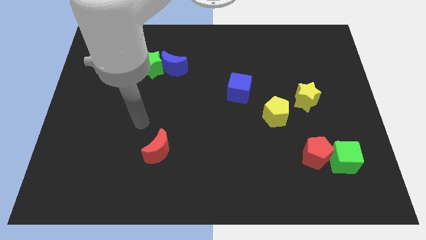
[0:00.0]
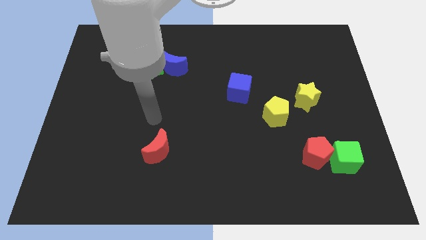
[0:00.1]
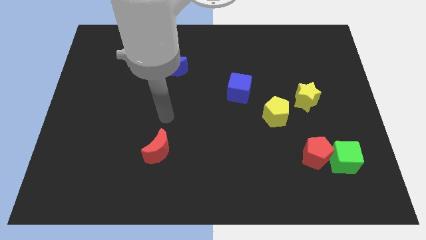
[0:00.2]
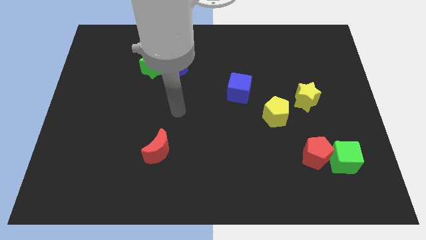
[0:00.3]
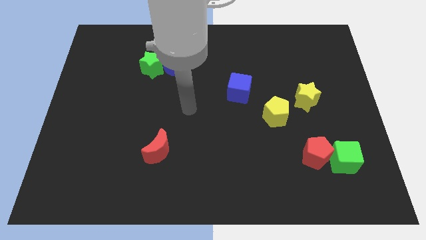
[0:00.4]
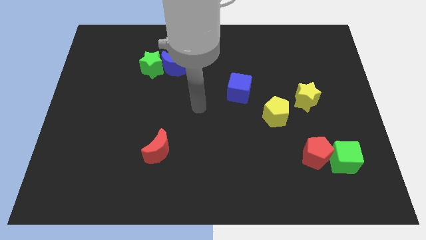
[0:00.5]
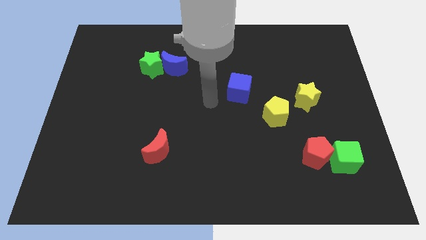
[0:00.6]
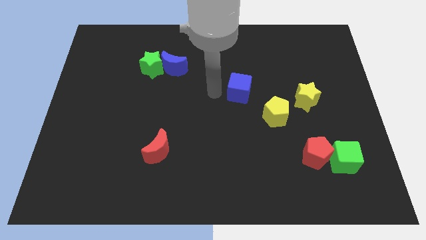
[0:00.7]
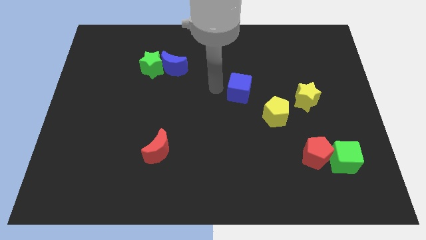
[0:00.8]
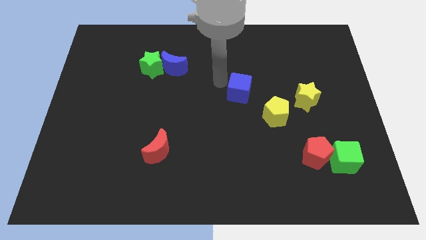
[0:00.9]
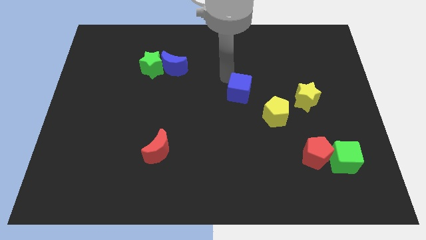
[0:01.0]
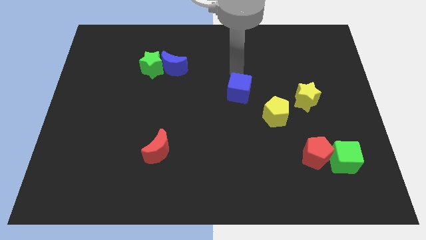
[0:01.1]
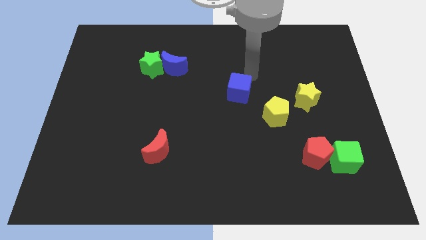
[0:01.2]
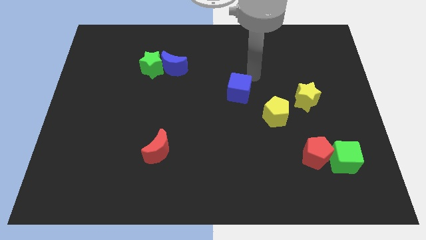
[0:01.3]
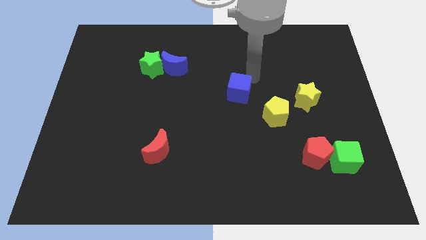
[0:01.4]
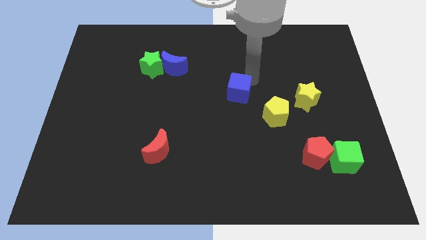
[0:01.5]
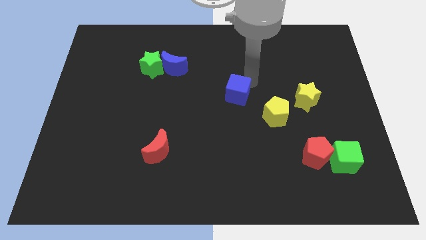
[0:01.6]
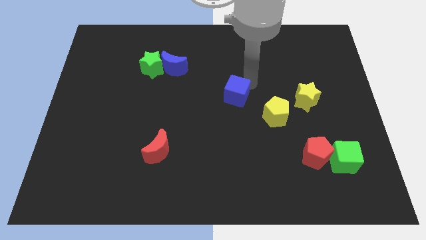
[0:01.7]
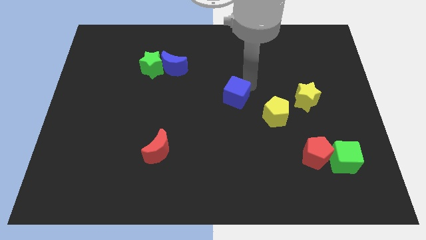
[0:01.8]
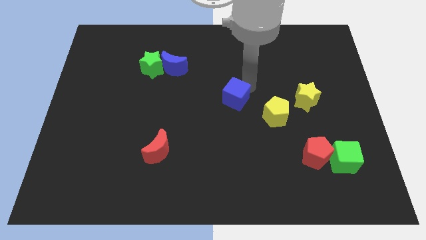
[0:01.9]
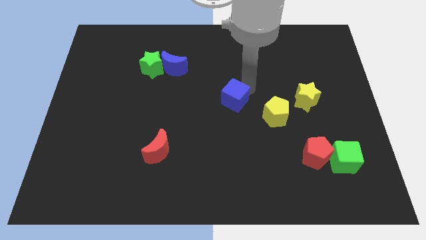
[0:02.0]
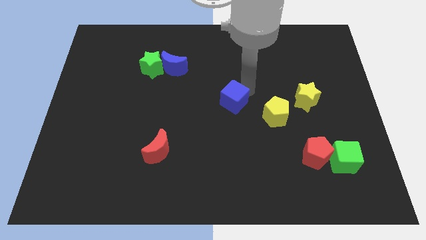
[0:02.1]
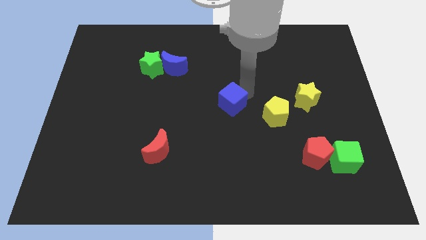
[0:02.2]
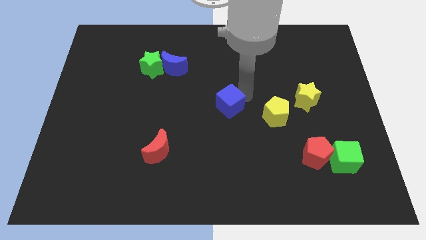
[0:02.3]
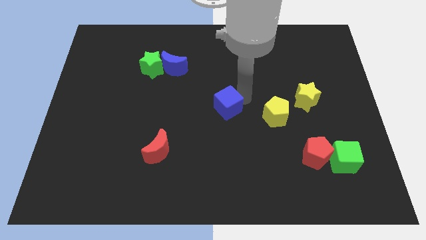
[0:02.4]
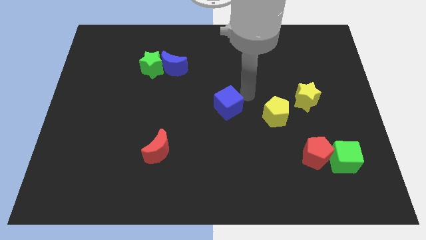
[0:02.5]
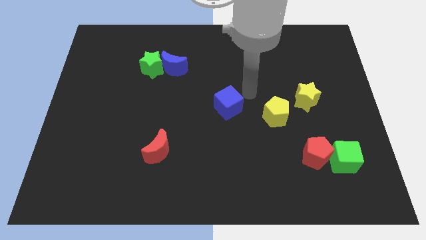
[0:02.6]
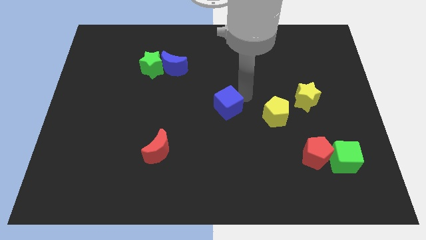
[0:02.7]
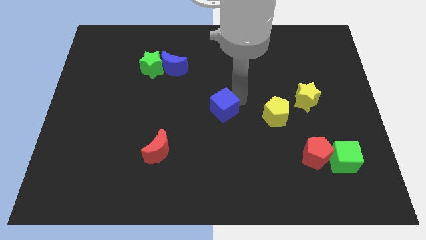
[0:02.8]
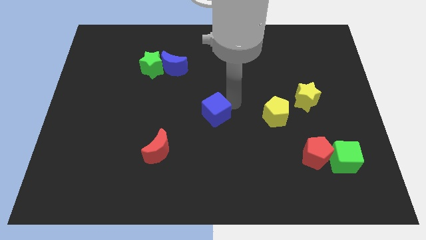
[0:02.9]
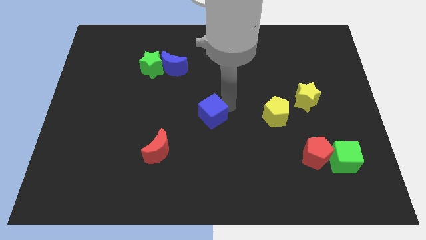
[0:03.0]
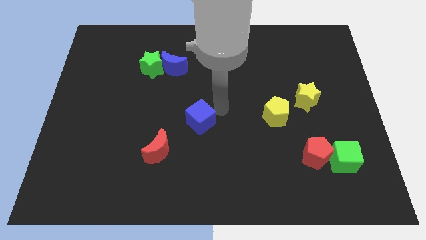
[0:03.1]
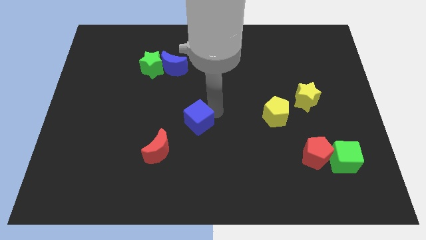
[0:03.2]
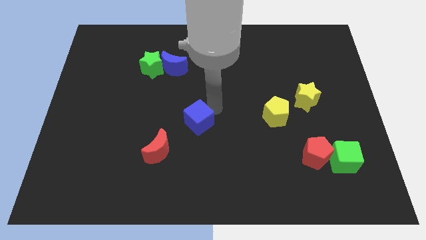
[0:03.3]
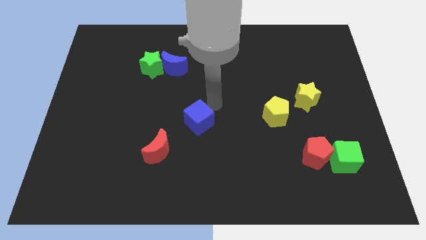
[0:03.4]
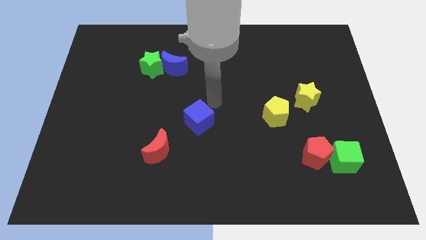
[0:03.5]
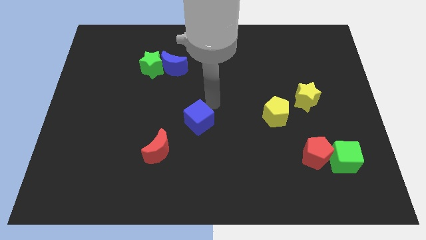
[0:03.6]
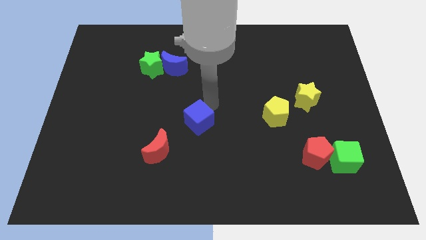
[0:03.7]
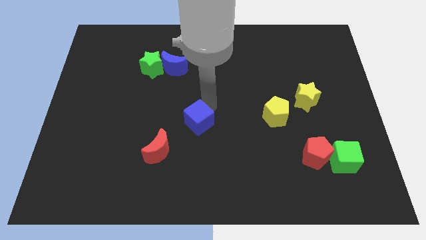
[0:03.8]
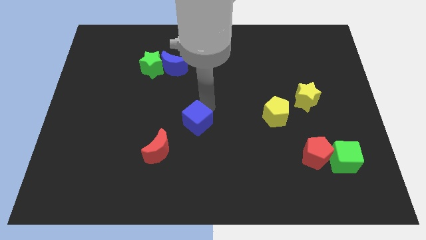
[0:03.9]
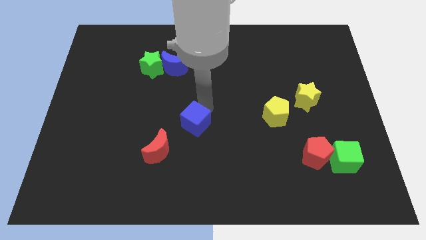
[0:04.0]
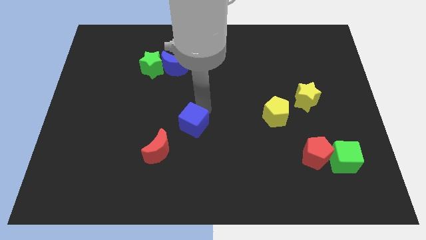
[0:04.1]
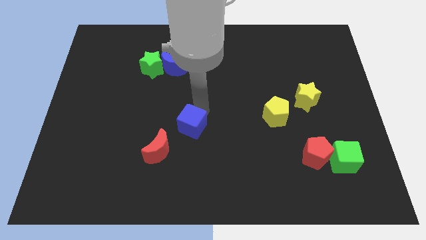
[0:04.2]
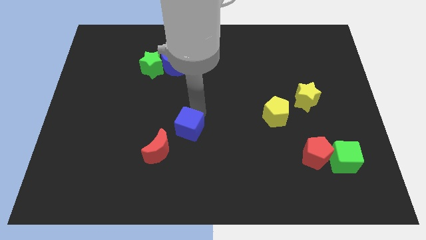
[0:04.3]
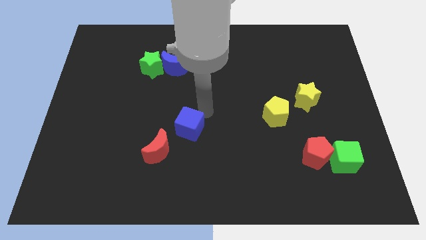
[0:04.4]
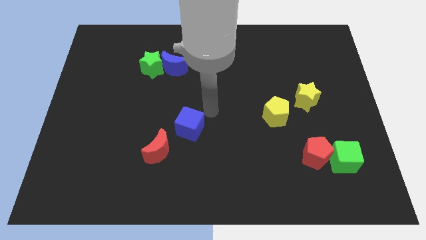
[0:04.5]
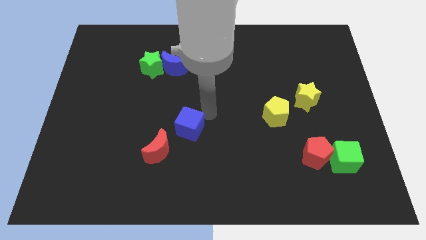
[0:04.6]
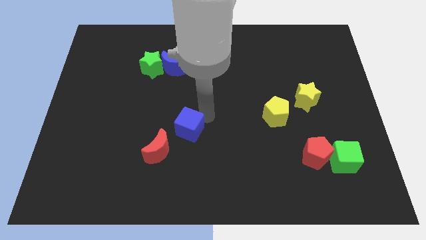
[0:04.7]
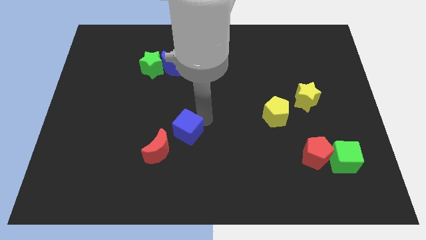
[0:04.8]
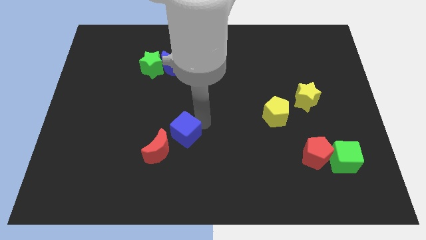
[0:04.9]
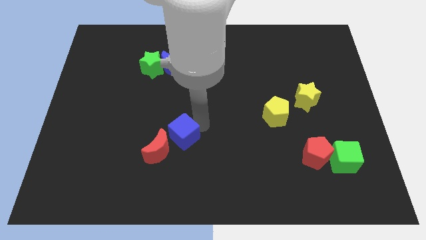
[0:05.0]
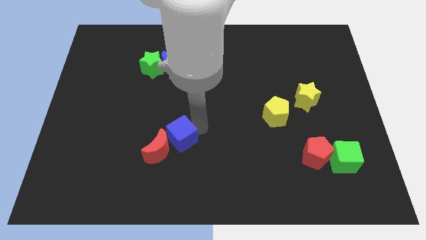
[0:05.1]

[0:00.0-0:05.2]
slide the blue cube to the red moon

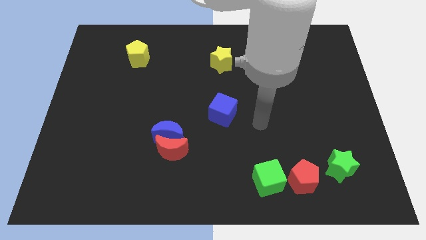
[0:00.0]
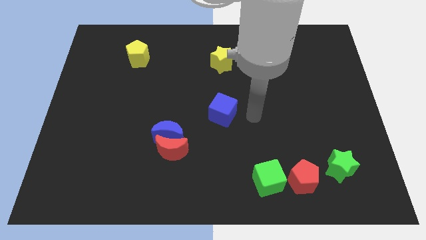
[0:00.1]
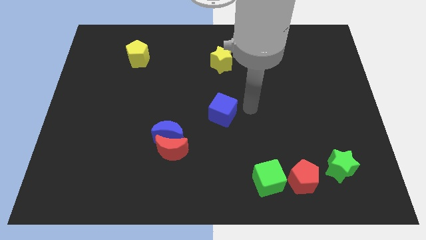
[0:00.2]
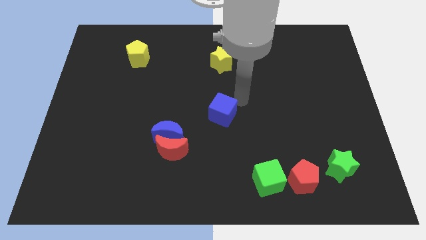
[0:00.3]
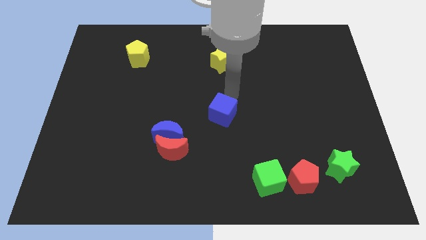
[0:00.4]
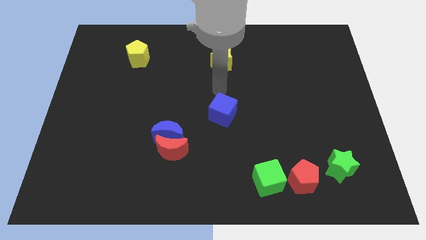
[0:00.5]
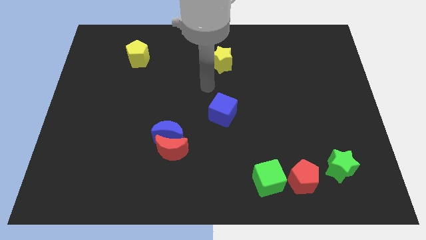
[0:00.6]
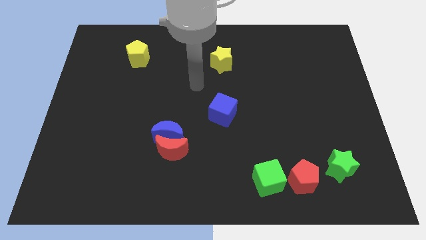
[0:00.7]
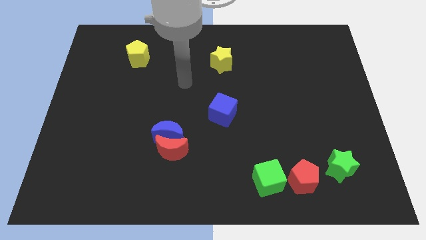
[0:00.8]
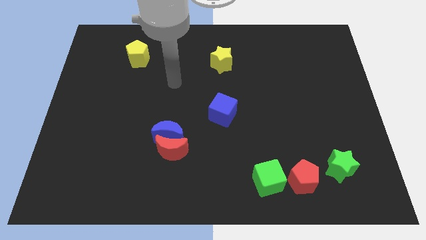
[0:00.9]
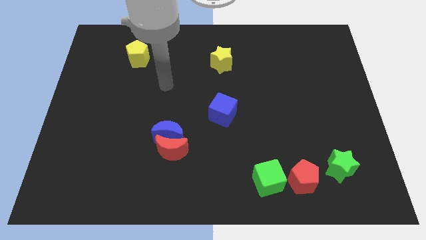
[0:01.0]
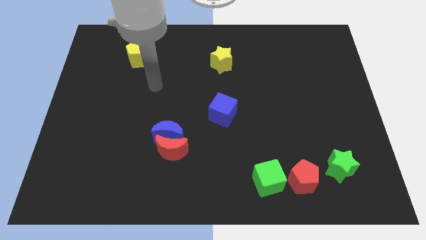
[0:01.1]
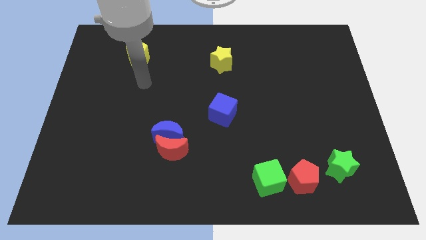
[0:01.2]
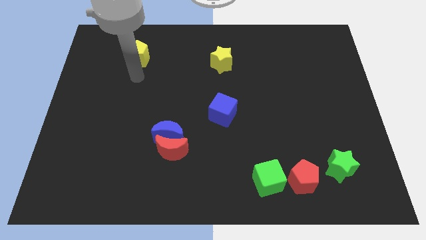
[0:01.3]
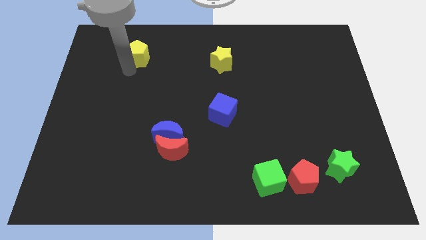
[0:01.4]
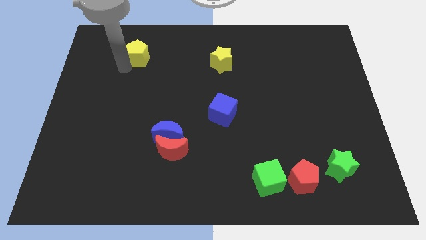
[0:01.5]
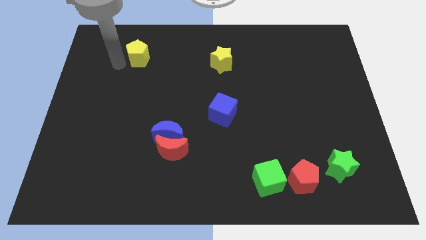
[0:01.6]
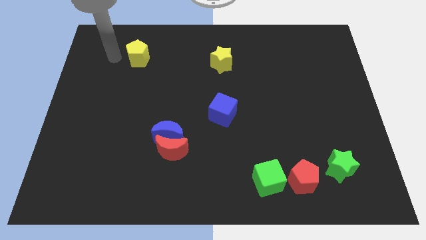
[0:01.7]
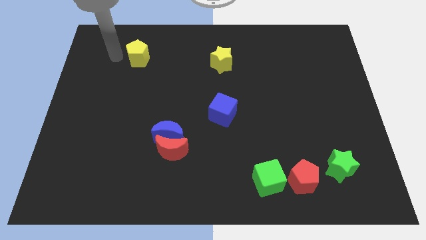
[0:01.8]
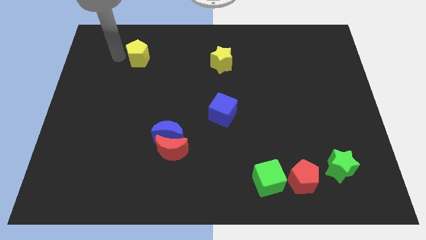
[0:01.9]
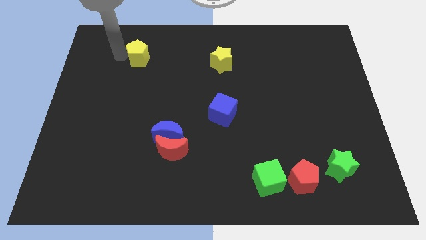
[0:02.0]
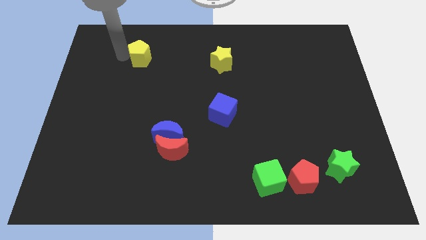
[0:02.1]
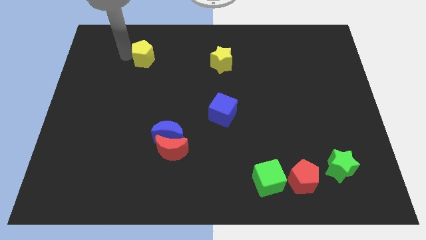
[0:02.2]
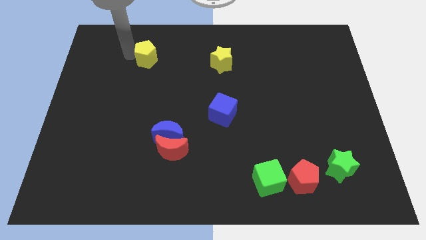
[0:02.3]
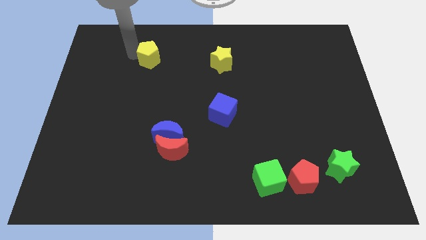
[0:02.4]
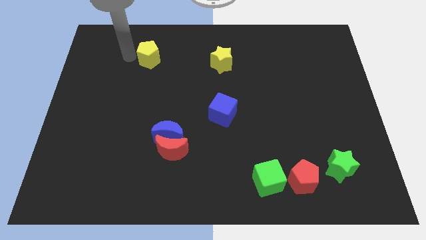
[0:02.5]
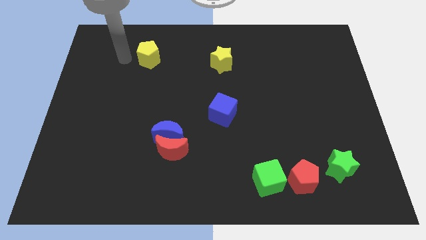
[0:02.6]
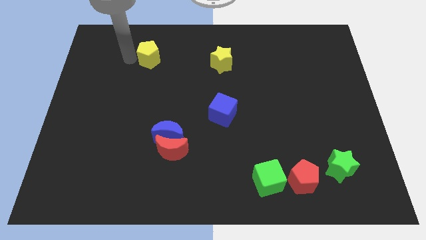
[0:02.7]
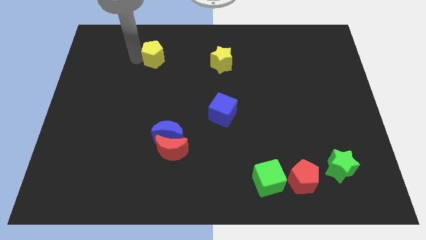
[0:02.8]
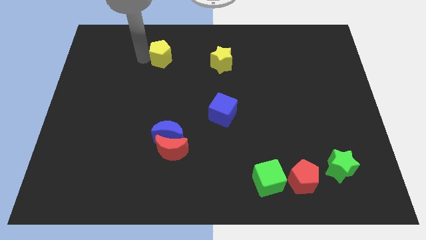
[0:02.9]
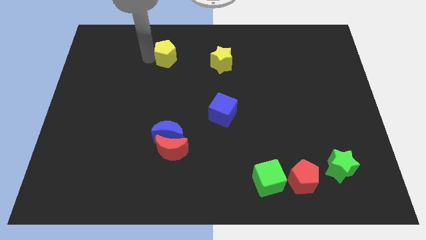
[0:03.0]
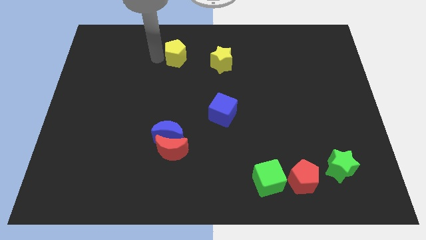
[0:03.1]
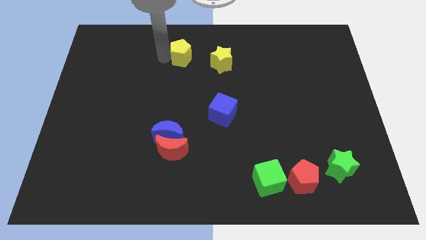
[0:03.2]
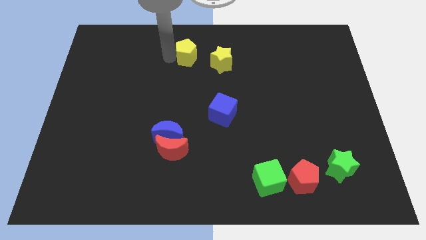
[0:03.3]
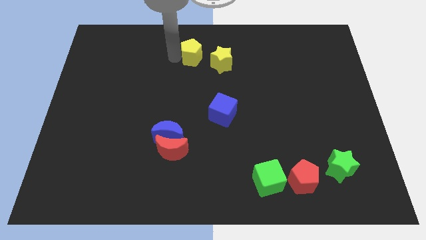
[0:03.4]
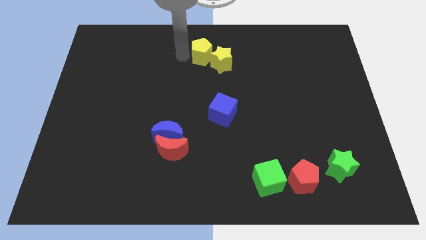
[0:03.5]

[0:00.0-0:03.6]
slide the yellow pentagon to the yellow star
